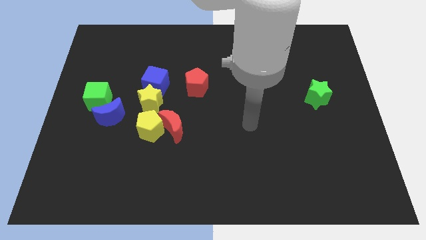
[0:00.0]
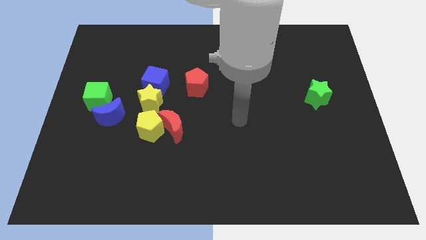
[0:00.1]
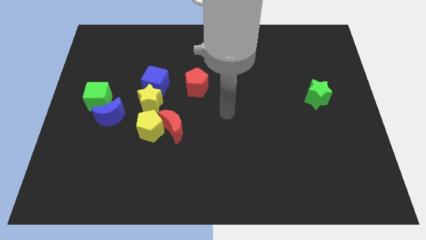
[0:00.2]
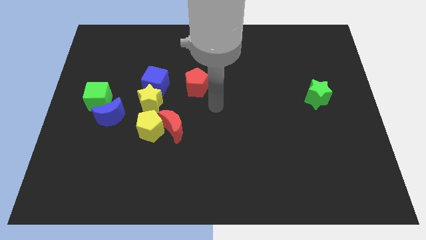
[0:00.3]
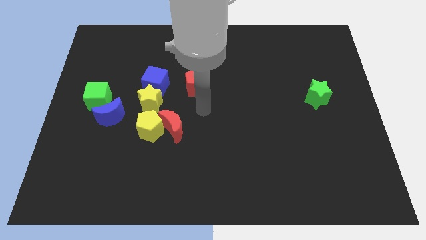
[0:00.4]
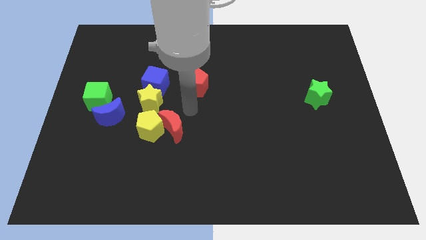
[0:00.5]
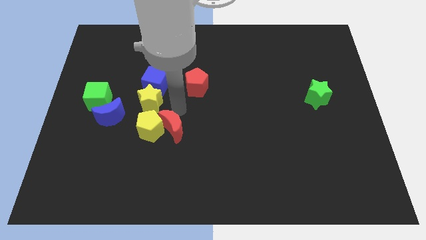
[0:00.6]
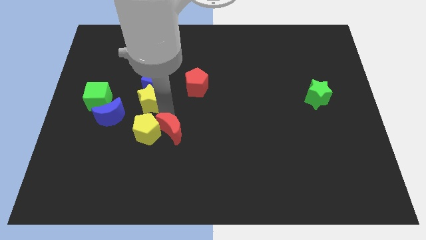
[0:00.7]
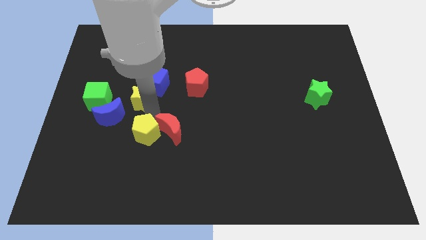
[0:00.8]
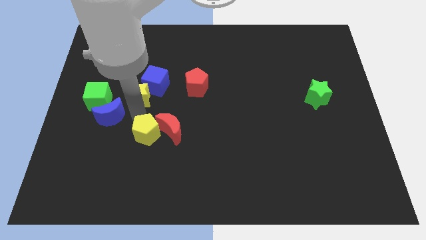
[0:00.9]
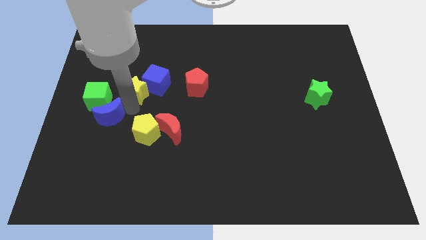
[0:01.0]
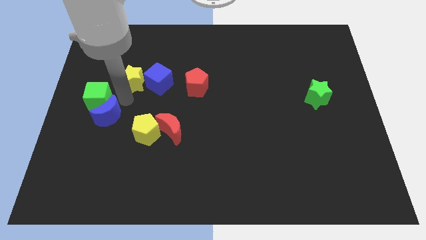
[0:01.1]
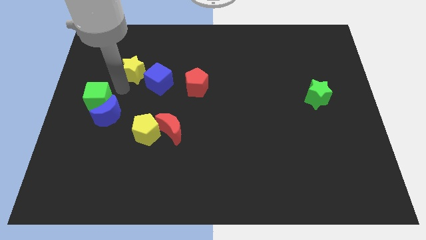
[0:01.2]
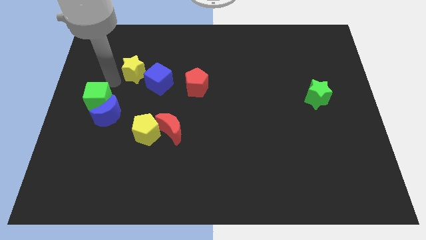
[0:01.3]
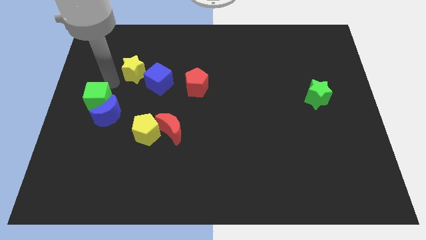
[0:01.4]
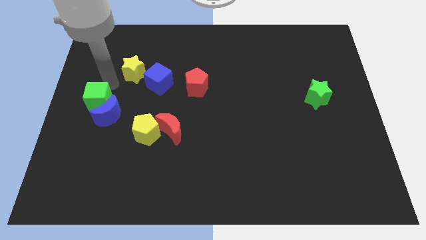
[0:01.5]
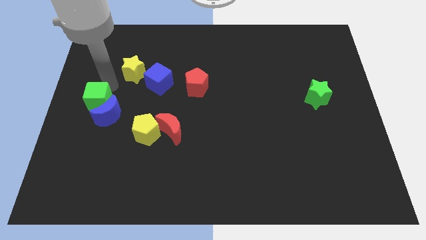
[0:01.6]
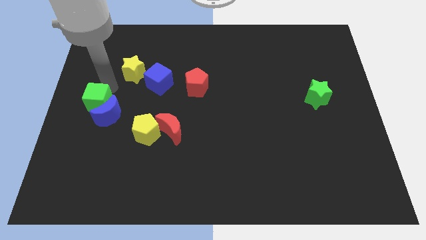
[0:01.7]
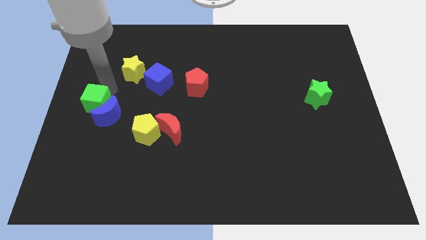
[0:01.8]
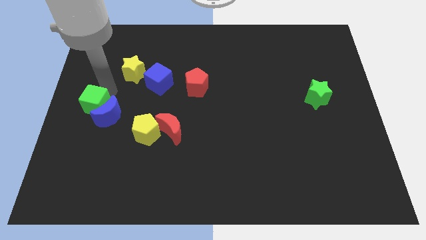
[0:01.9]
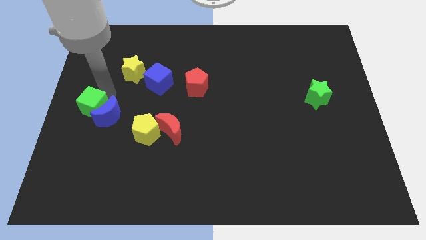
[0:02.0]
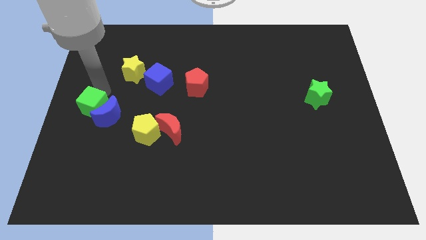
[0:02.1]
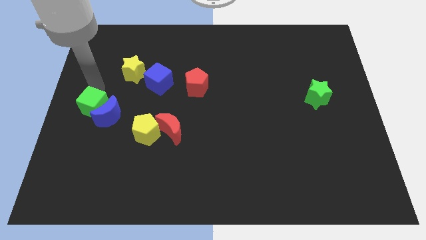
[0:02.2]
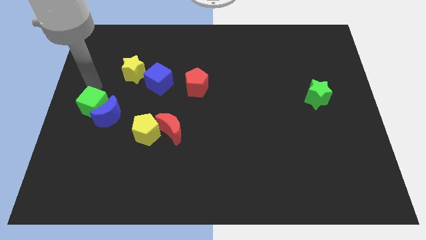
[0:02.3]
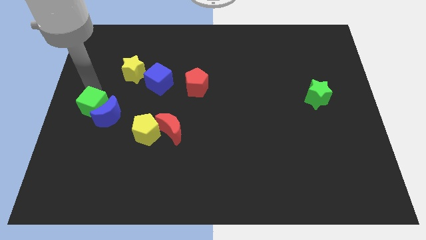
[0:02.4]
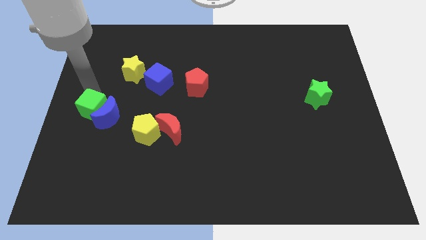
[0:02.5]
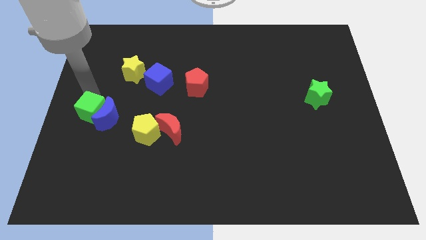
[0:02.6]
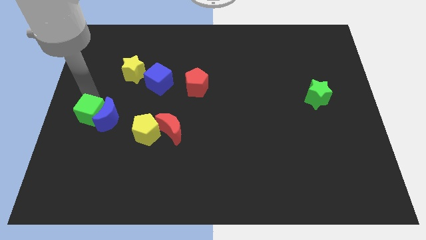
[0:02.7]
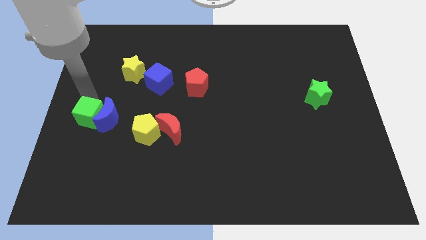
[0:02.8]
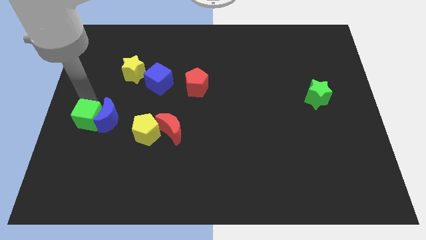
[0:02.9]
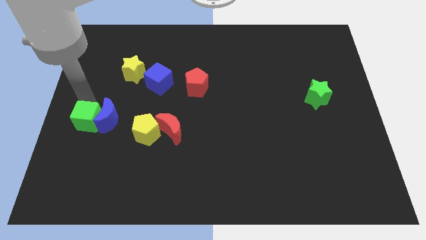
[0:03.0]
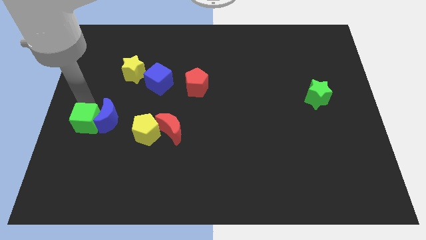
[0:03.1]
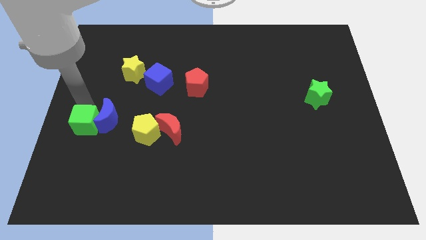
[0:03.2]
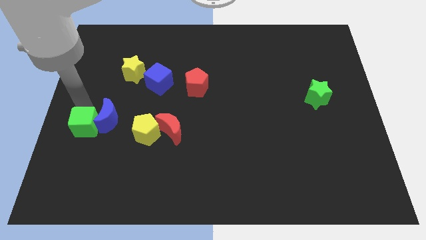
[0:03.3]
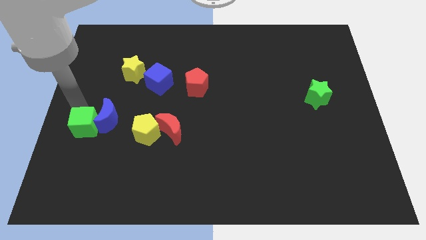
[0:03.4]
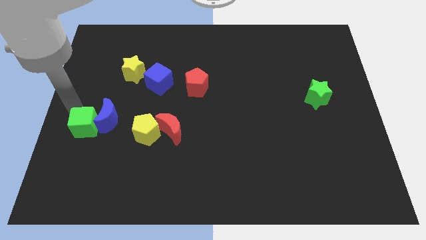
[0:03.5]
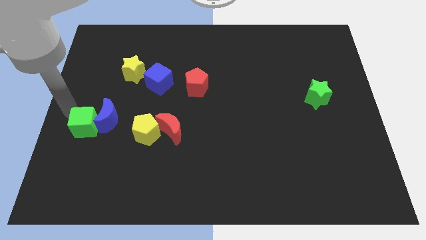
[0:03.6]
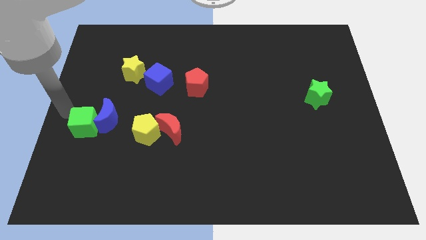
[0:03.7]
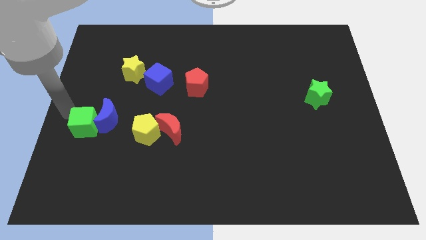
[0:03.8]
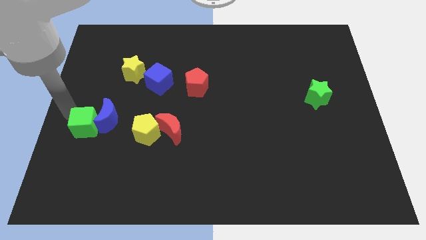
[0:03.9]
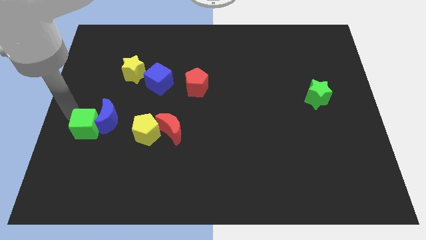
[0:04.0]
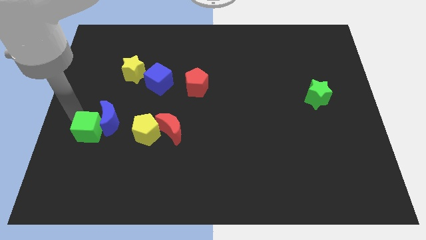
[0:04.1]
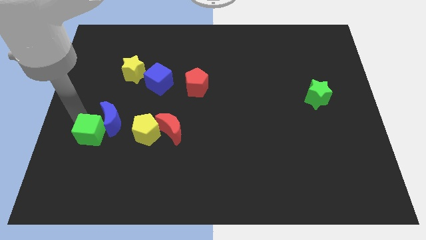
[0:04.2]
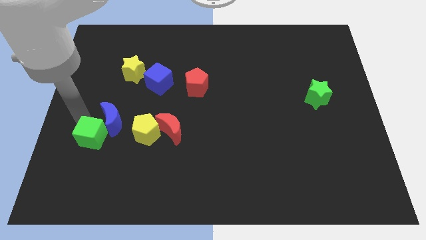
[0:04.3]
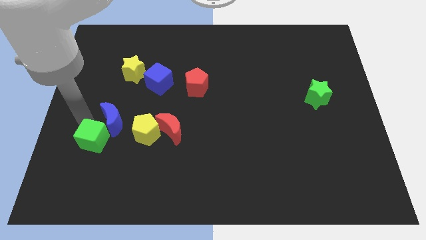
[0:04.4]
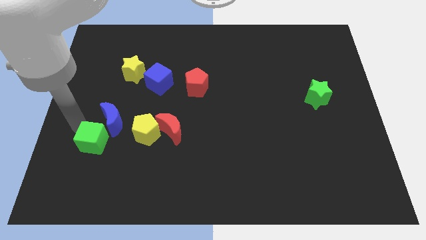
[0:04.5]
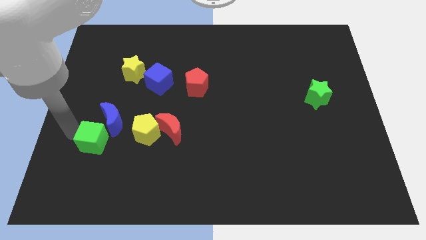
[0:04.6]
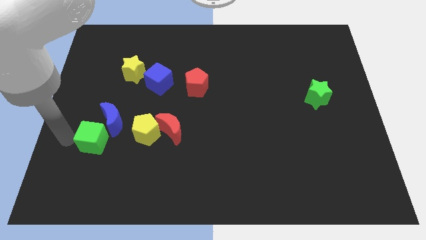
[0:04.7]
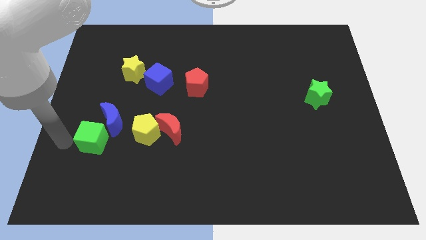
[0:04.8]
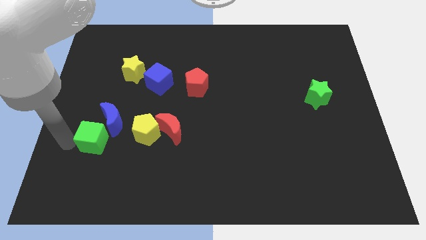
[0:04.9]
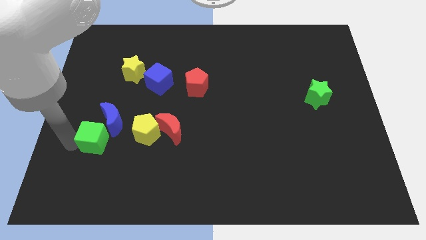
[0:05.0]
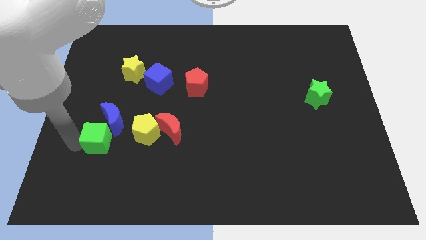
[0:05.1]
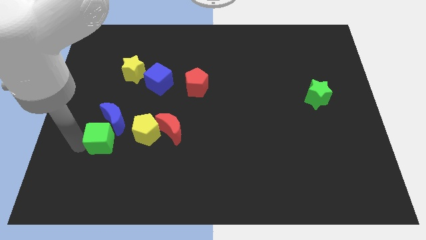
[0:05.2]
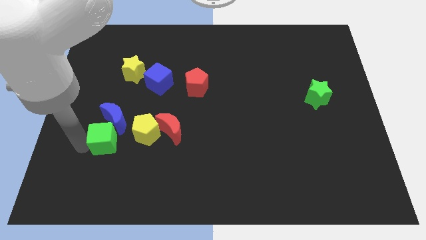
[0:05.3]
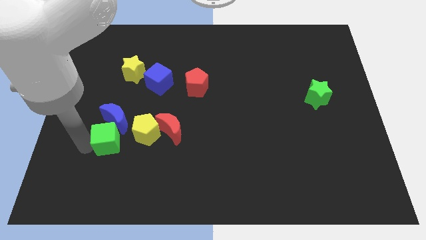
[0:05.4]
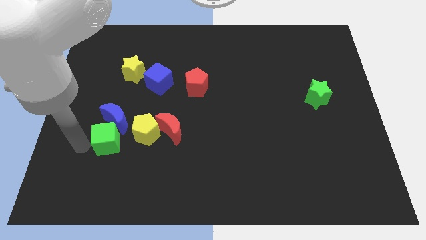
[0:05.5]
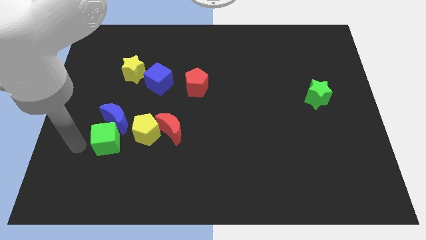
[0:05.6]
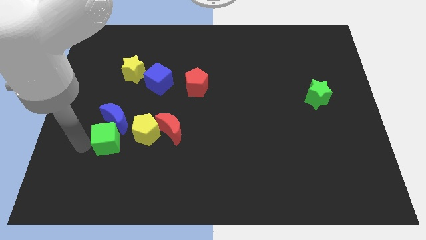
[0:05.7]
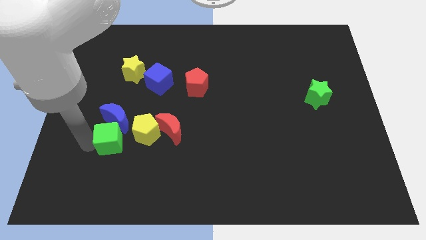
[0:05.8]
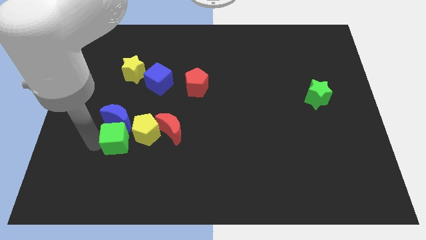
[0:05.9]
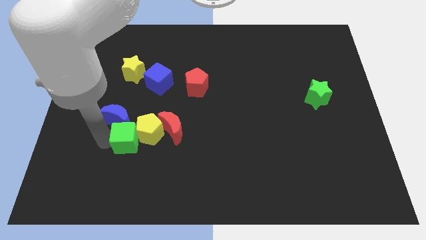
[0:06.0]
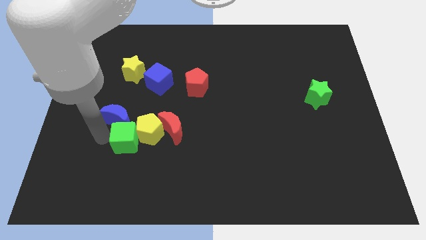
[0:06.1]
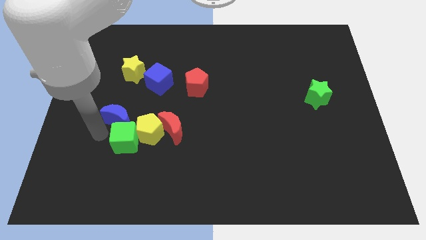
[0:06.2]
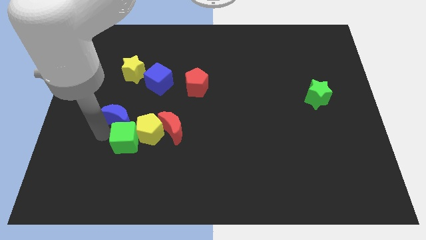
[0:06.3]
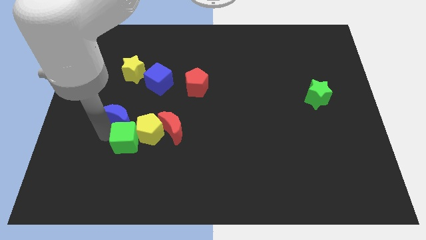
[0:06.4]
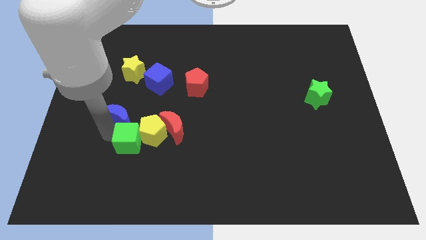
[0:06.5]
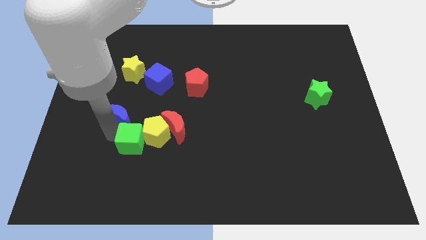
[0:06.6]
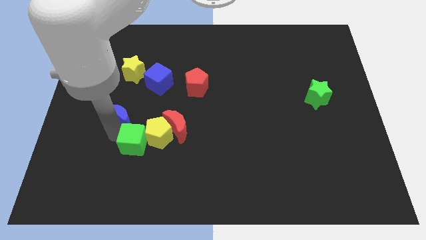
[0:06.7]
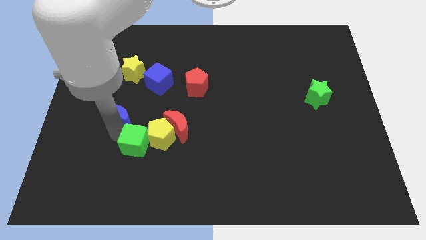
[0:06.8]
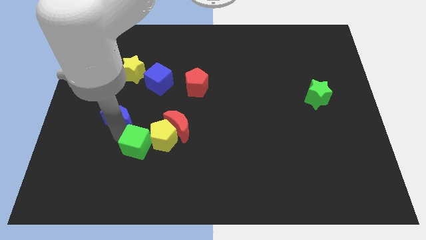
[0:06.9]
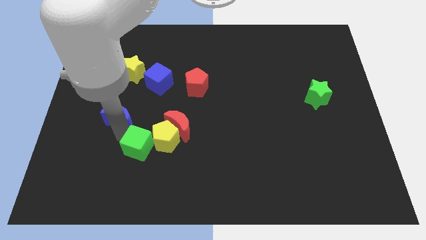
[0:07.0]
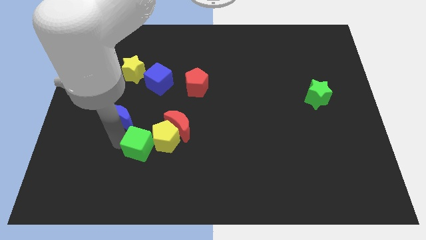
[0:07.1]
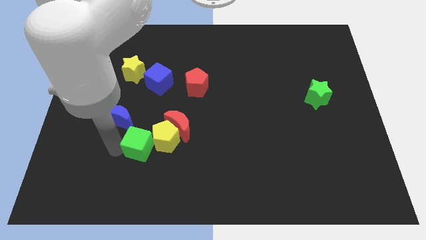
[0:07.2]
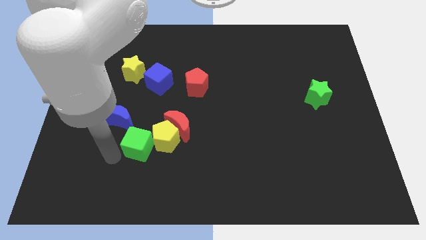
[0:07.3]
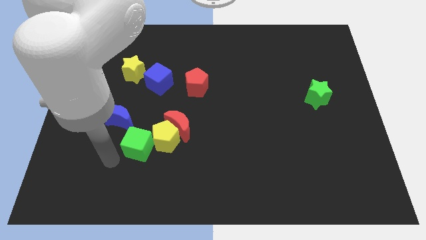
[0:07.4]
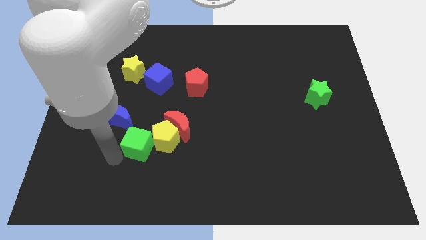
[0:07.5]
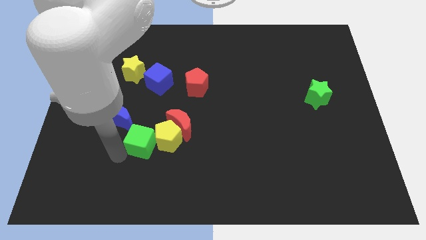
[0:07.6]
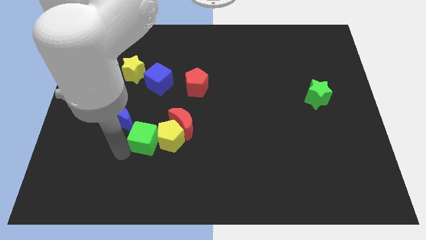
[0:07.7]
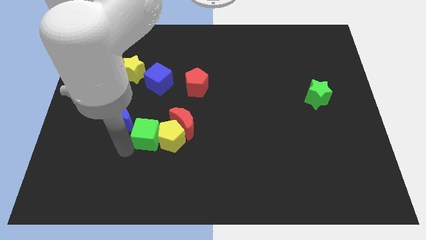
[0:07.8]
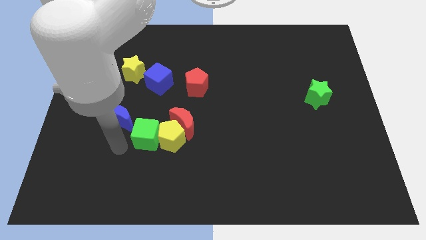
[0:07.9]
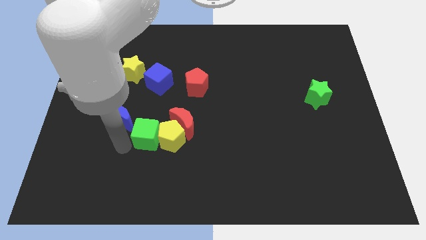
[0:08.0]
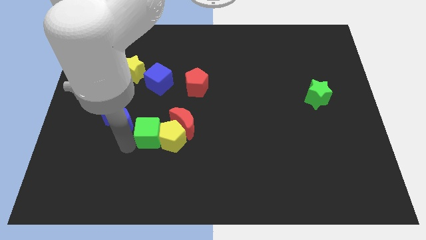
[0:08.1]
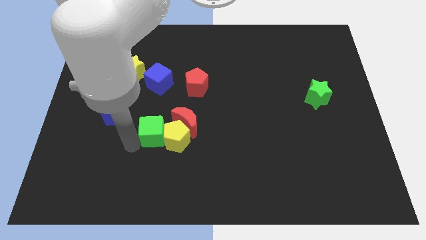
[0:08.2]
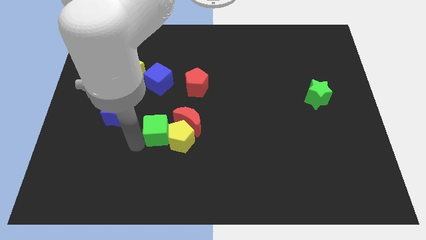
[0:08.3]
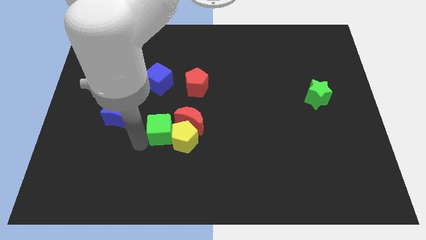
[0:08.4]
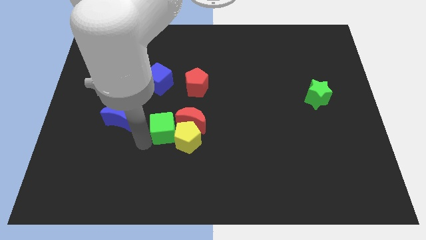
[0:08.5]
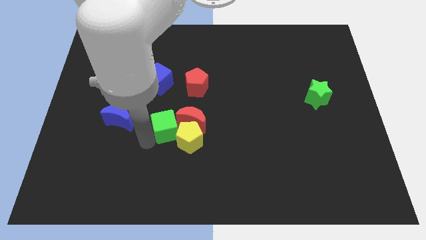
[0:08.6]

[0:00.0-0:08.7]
slide the green cube towards the red moon
